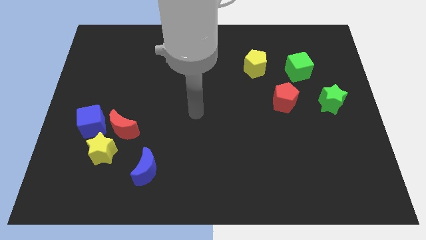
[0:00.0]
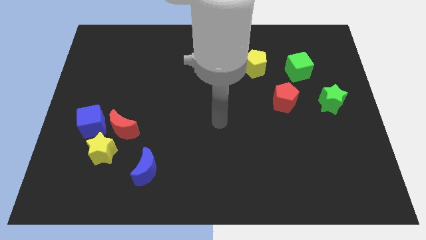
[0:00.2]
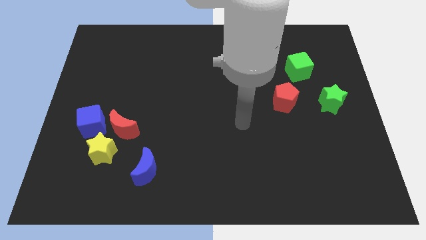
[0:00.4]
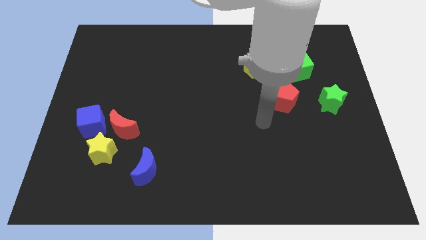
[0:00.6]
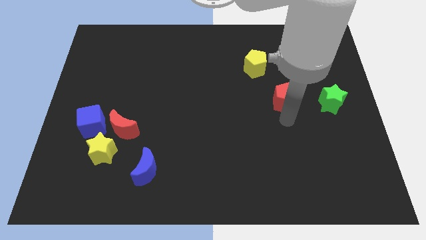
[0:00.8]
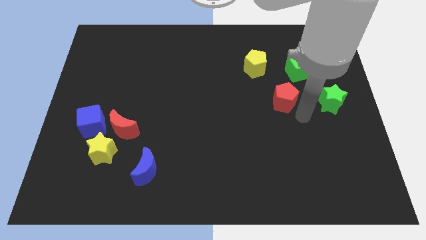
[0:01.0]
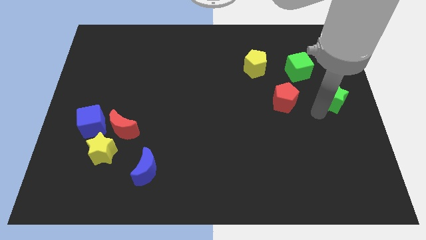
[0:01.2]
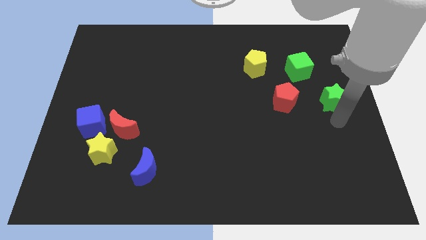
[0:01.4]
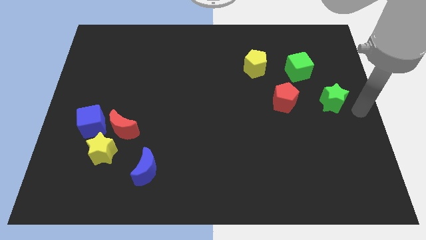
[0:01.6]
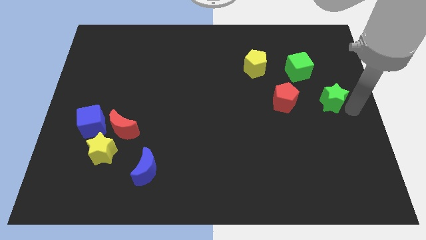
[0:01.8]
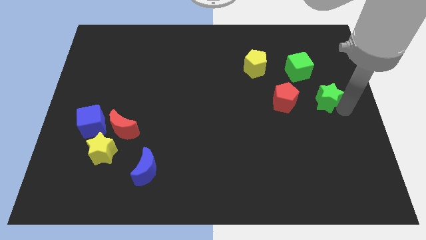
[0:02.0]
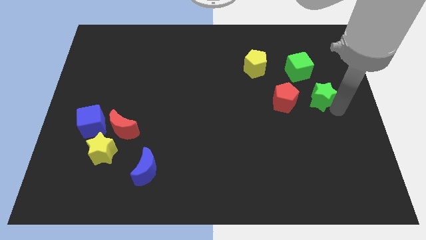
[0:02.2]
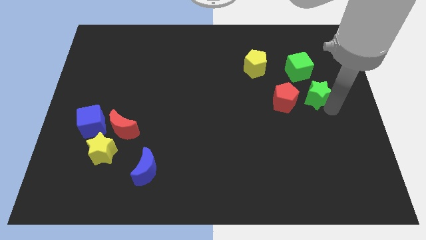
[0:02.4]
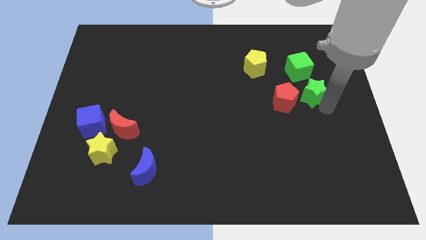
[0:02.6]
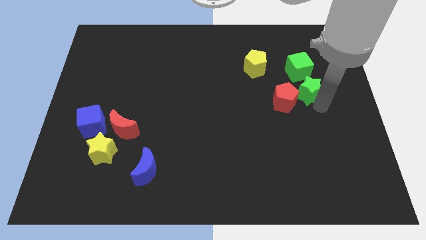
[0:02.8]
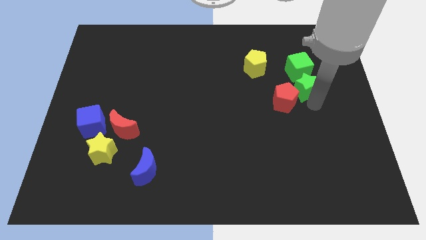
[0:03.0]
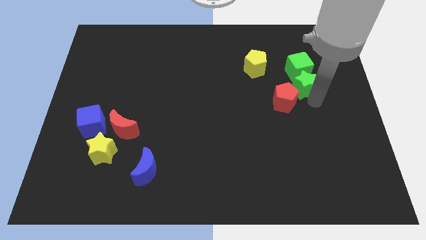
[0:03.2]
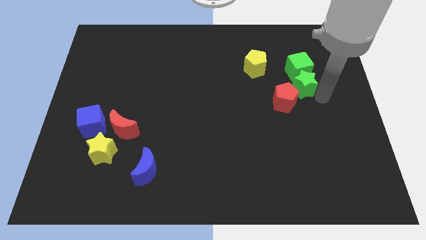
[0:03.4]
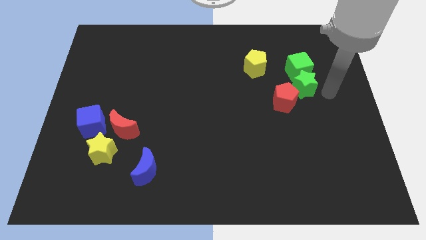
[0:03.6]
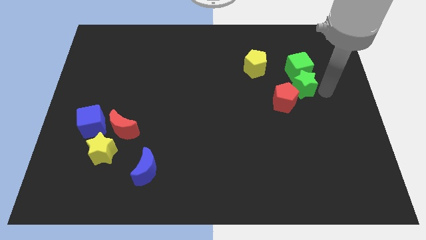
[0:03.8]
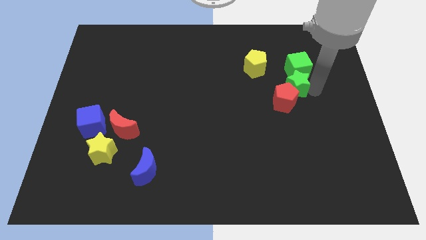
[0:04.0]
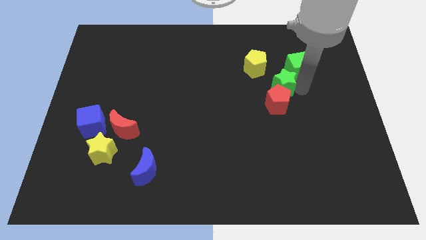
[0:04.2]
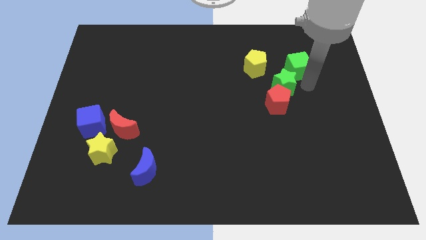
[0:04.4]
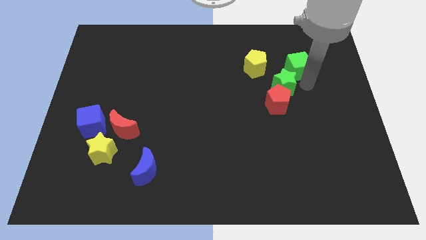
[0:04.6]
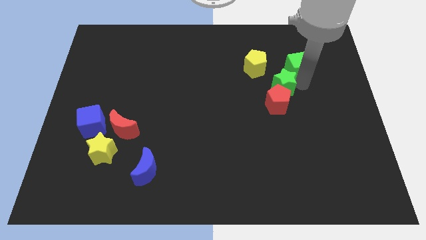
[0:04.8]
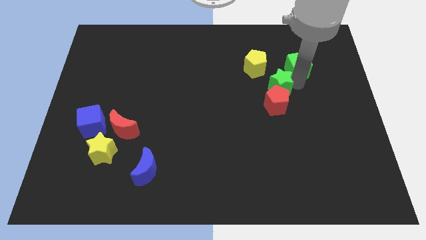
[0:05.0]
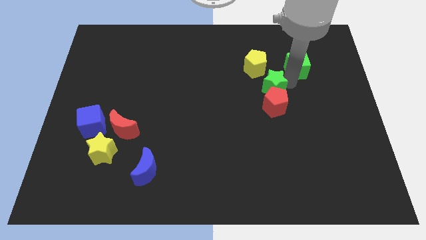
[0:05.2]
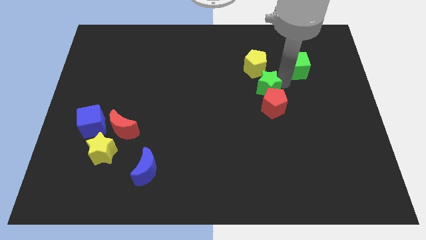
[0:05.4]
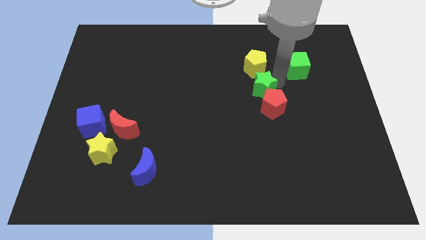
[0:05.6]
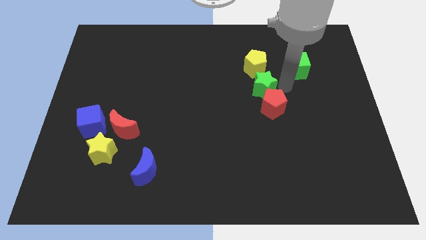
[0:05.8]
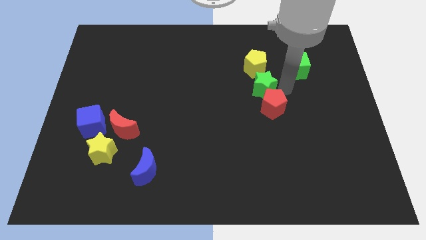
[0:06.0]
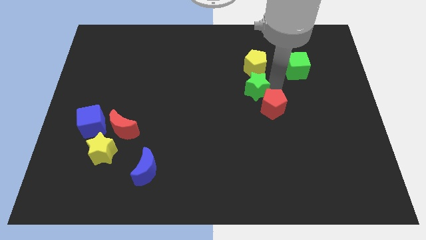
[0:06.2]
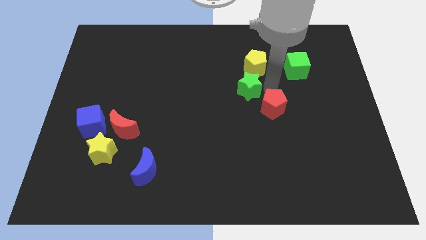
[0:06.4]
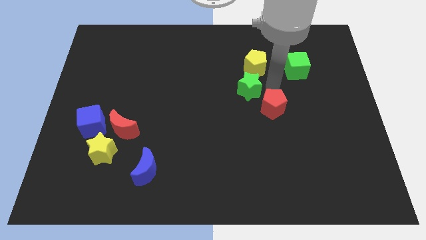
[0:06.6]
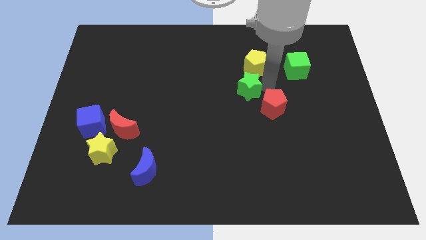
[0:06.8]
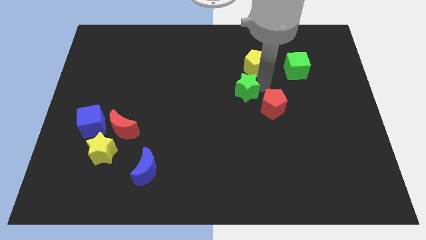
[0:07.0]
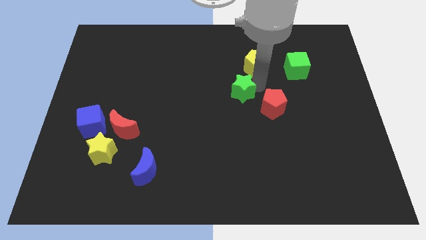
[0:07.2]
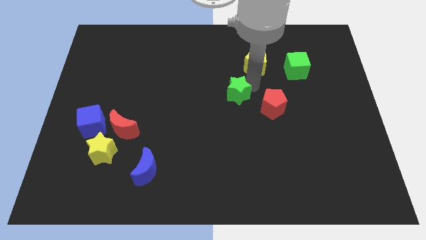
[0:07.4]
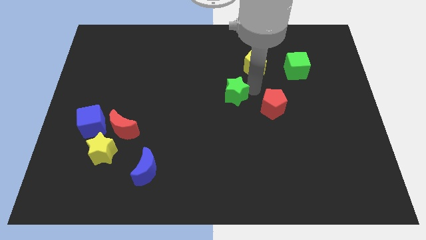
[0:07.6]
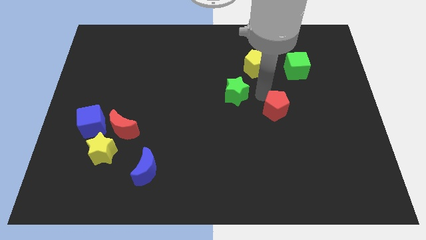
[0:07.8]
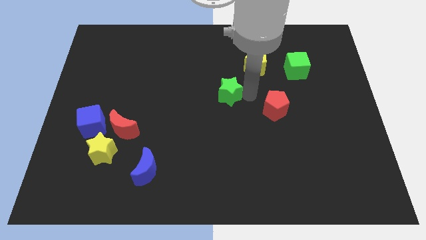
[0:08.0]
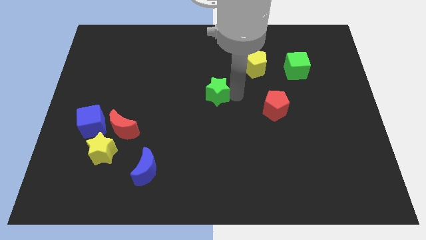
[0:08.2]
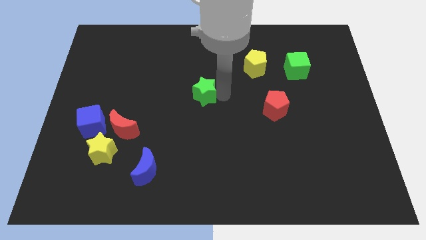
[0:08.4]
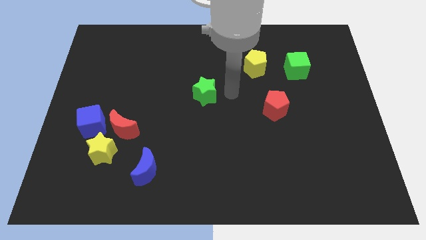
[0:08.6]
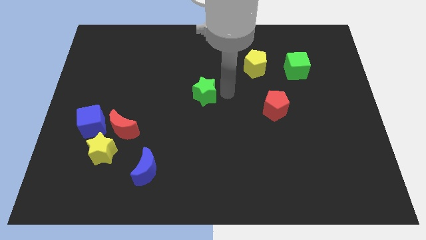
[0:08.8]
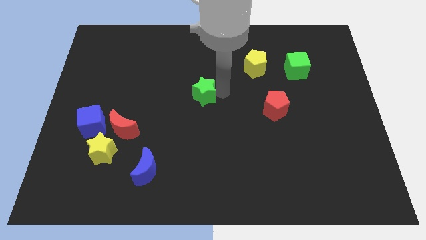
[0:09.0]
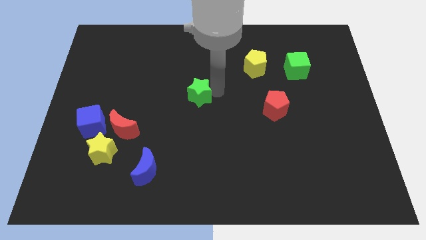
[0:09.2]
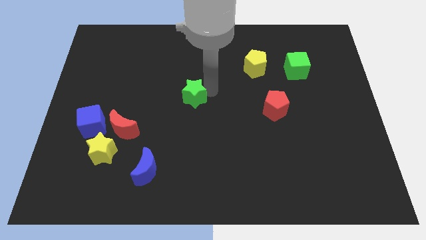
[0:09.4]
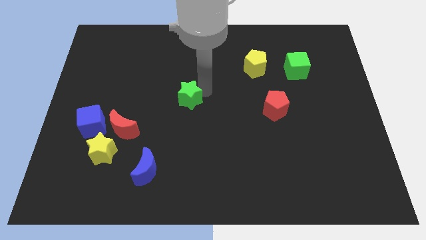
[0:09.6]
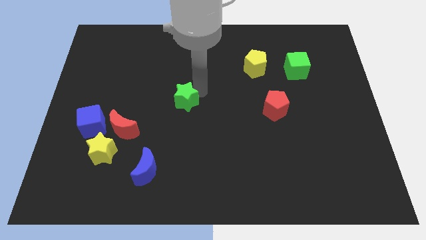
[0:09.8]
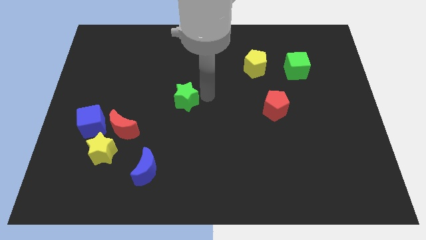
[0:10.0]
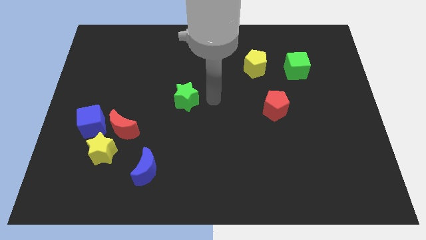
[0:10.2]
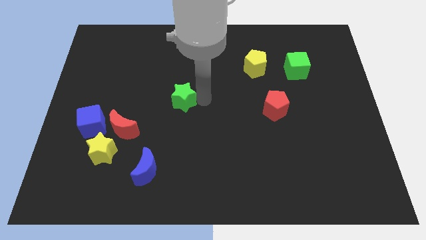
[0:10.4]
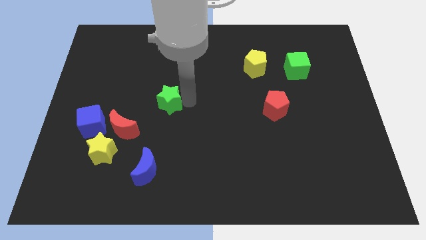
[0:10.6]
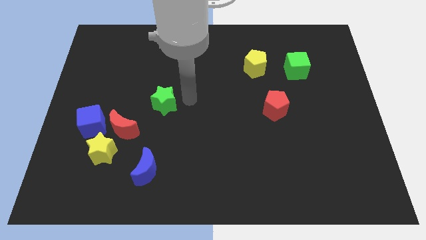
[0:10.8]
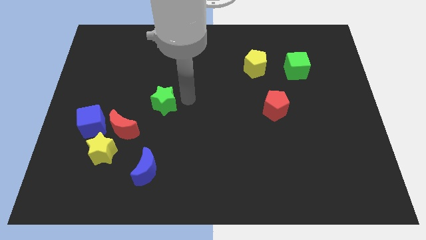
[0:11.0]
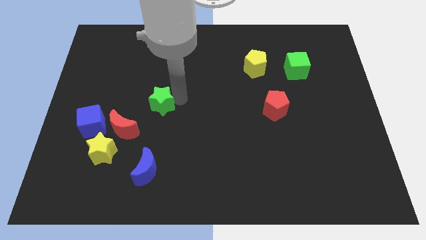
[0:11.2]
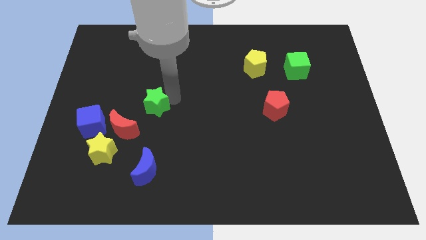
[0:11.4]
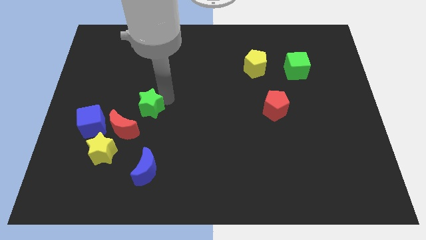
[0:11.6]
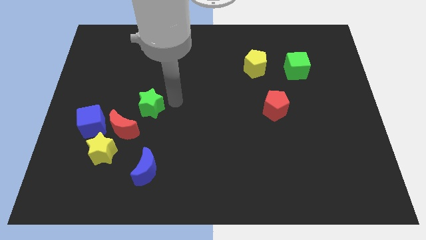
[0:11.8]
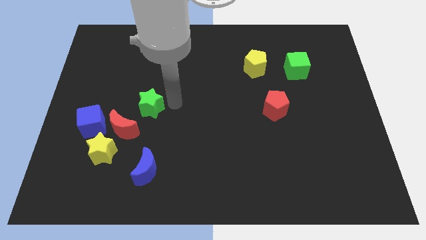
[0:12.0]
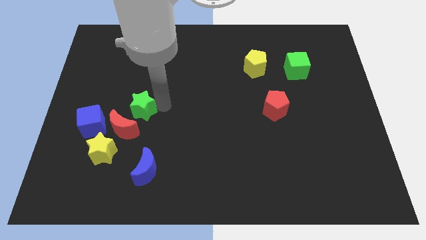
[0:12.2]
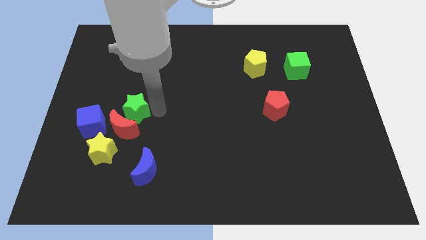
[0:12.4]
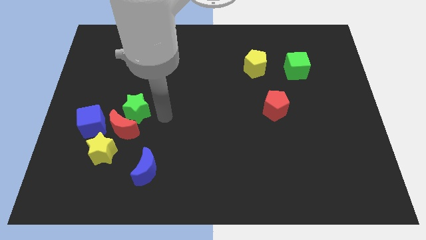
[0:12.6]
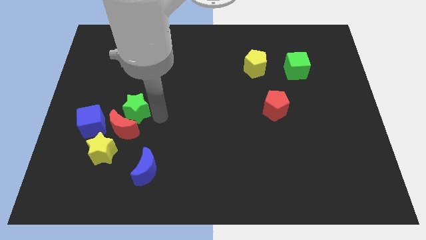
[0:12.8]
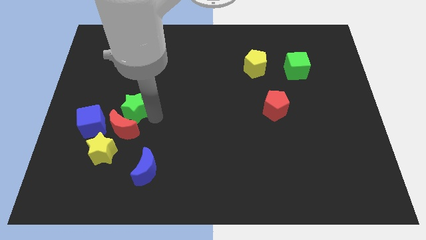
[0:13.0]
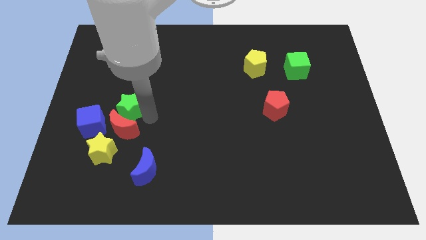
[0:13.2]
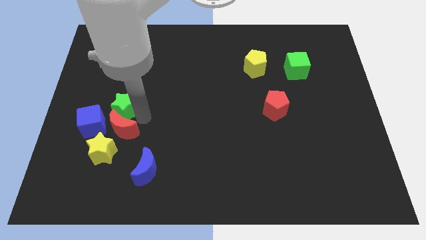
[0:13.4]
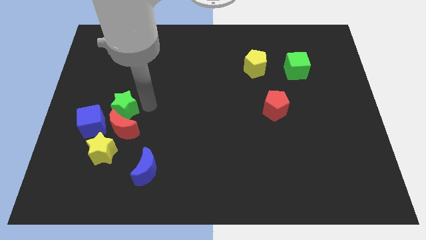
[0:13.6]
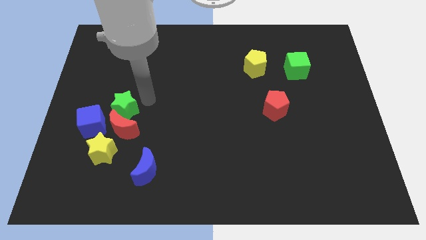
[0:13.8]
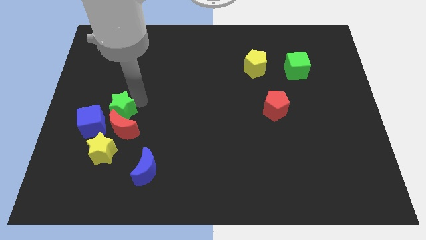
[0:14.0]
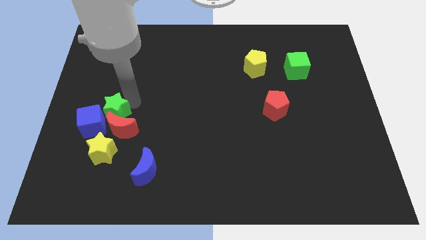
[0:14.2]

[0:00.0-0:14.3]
slide the green star to the blue cube

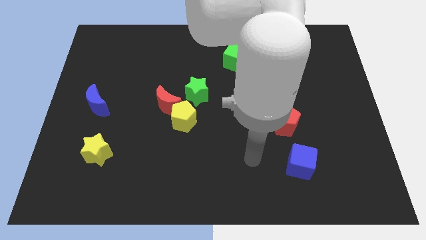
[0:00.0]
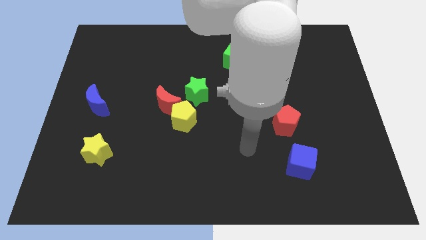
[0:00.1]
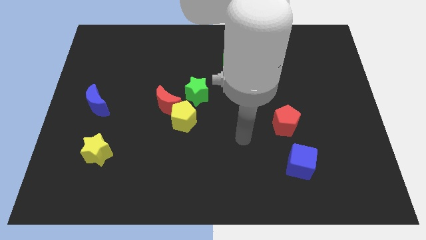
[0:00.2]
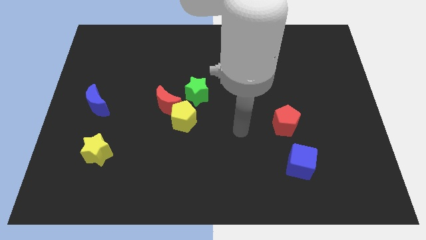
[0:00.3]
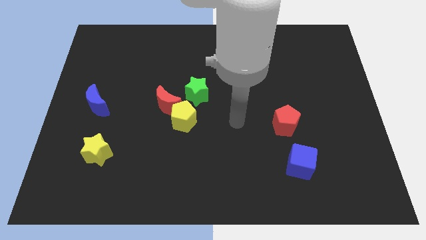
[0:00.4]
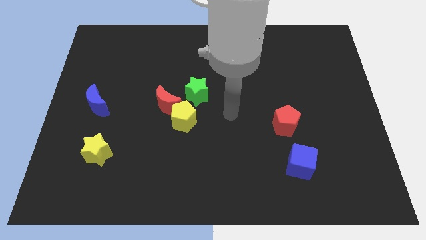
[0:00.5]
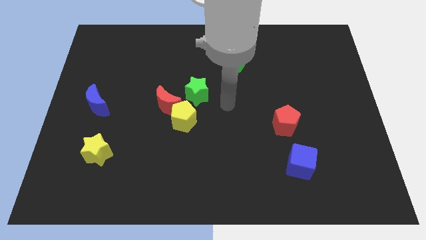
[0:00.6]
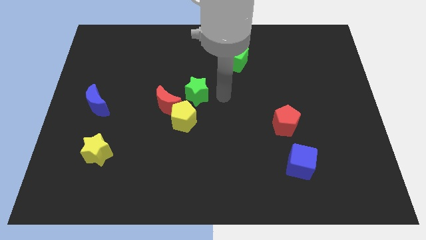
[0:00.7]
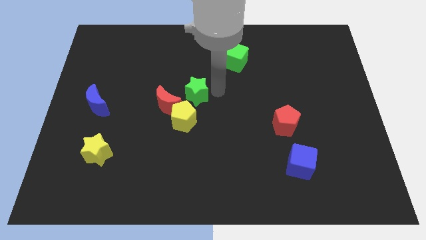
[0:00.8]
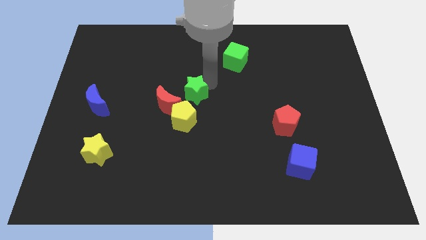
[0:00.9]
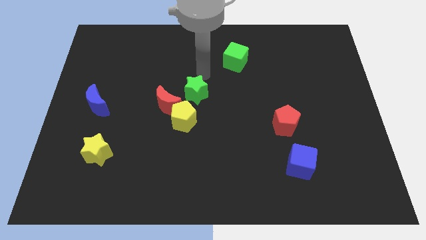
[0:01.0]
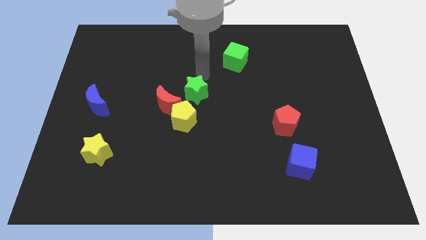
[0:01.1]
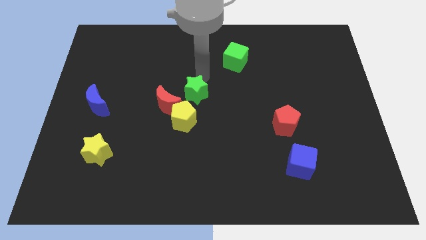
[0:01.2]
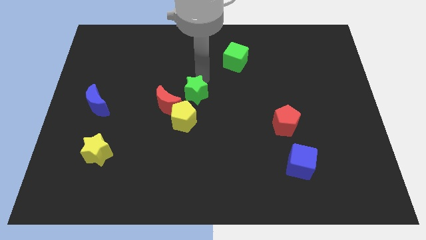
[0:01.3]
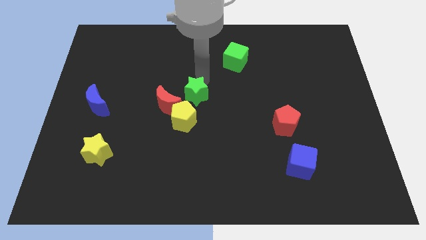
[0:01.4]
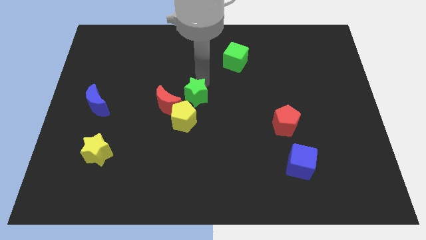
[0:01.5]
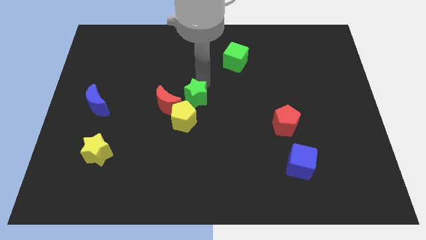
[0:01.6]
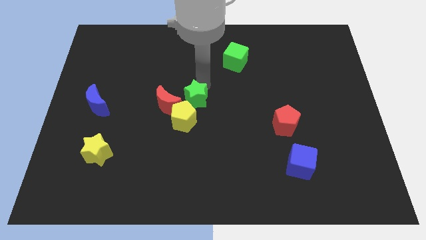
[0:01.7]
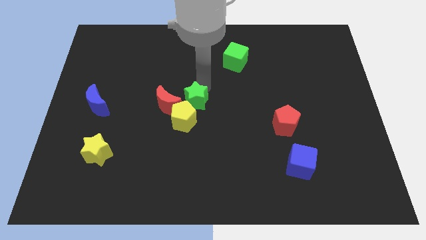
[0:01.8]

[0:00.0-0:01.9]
put the green star close to the yellow pentagon
